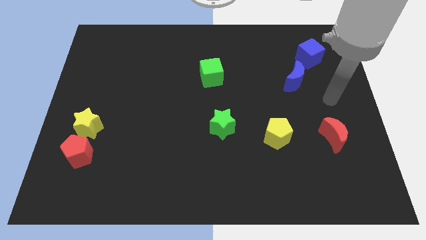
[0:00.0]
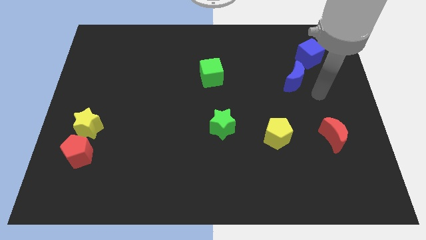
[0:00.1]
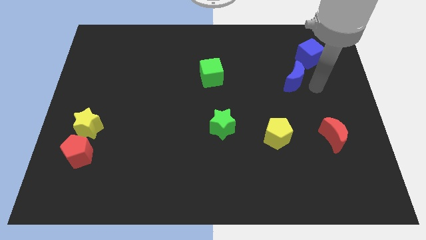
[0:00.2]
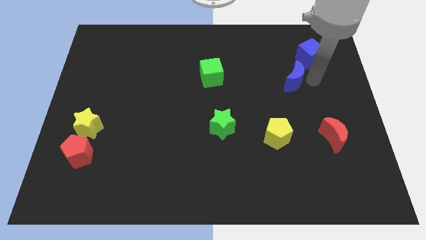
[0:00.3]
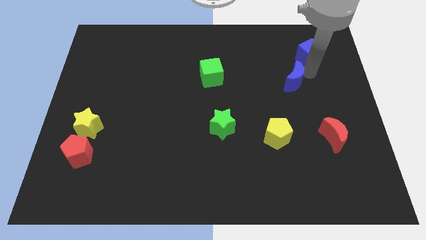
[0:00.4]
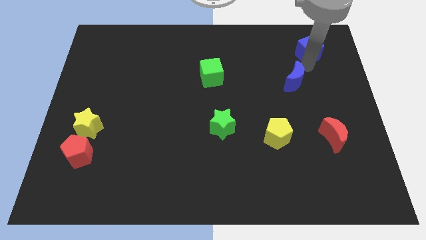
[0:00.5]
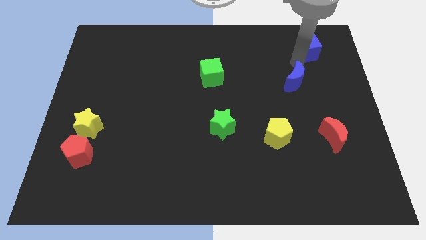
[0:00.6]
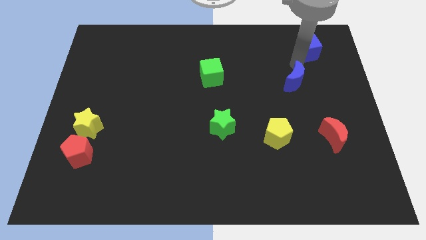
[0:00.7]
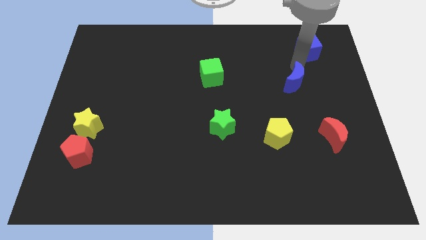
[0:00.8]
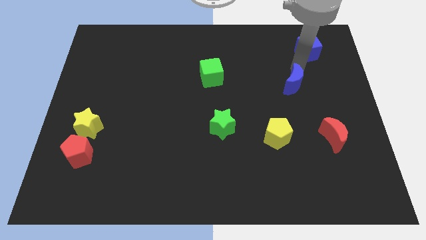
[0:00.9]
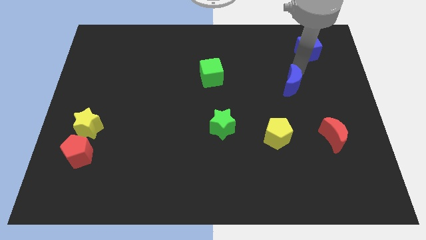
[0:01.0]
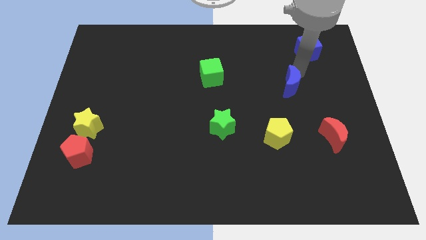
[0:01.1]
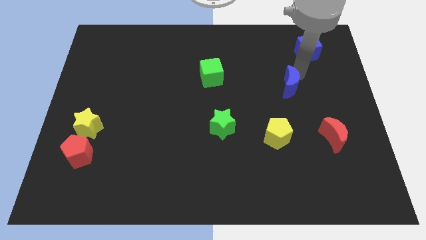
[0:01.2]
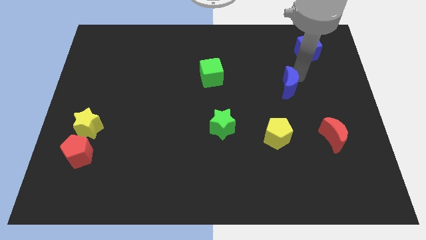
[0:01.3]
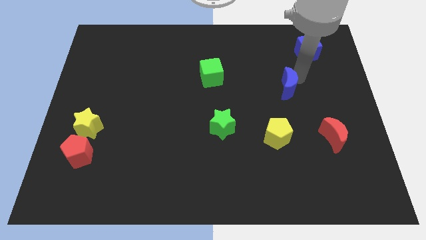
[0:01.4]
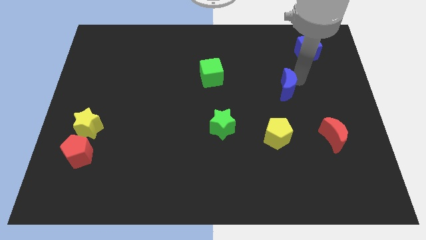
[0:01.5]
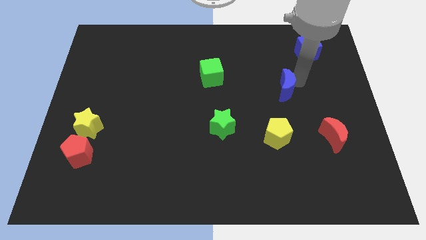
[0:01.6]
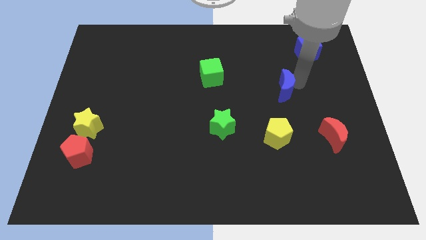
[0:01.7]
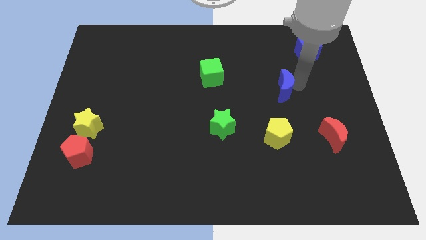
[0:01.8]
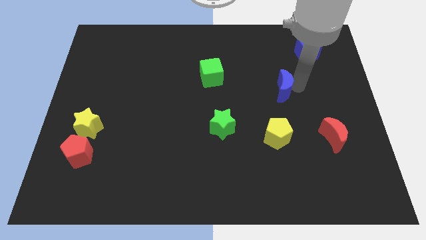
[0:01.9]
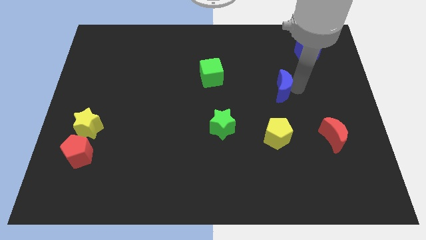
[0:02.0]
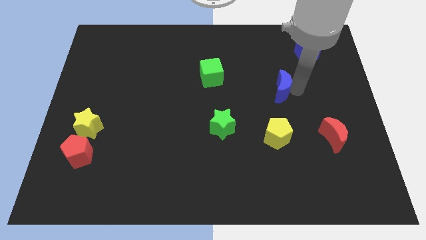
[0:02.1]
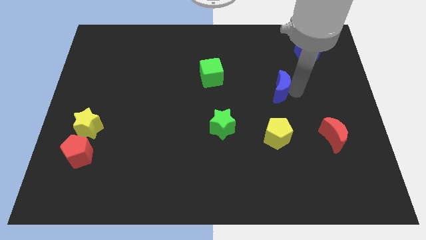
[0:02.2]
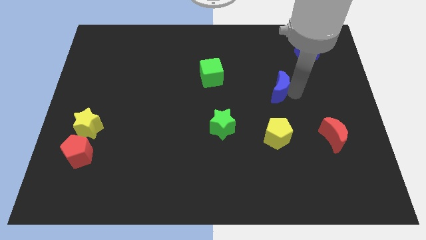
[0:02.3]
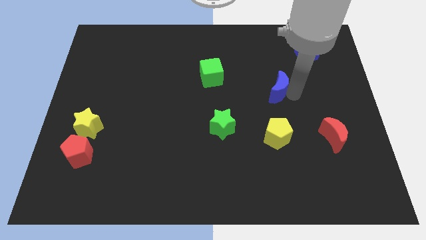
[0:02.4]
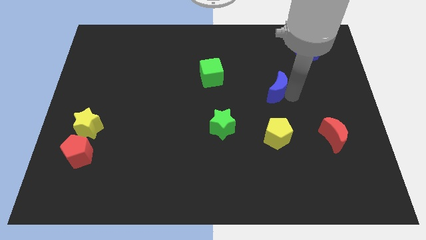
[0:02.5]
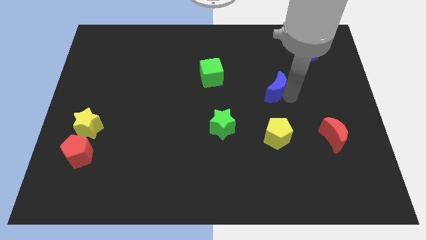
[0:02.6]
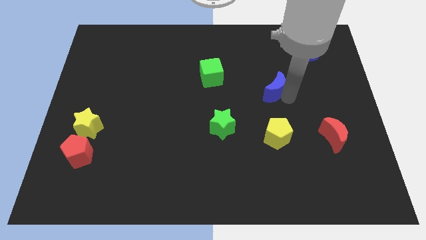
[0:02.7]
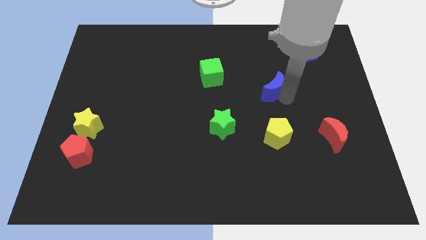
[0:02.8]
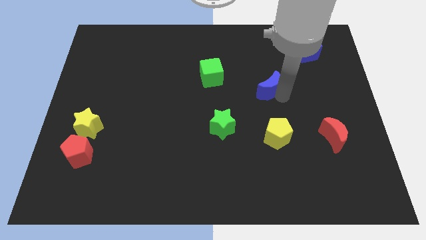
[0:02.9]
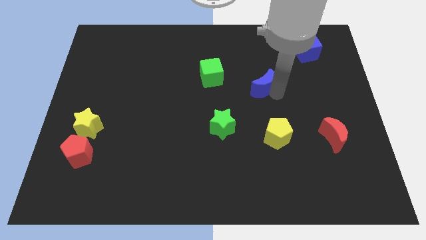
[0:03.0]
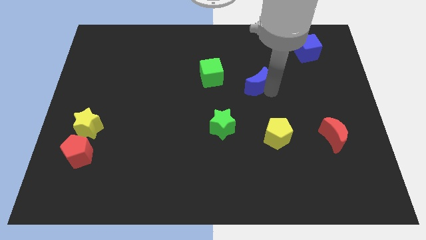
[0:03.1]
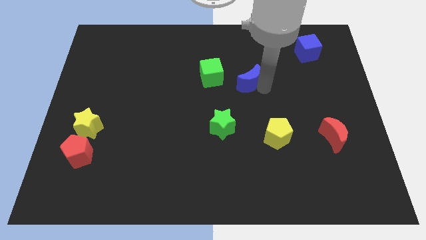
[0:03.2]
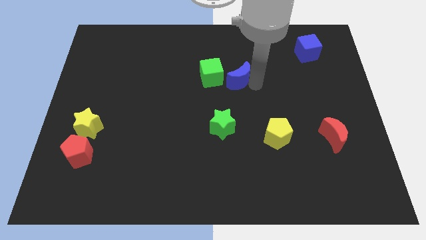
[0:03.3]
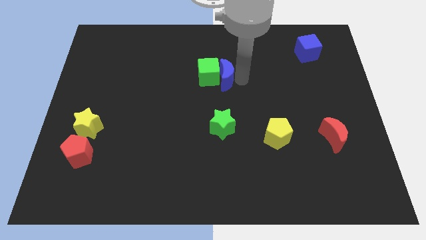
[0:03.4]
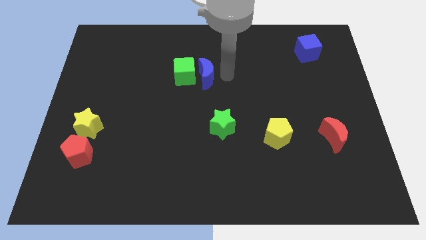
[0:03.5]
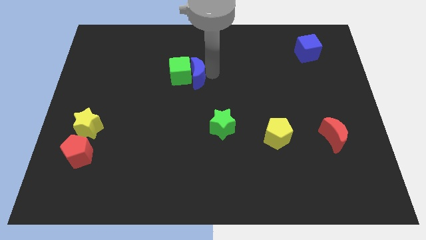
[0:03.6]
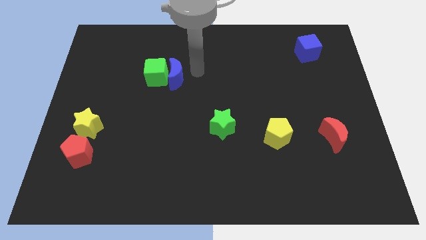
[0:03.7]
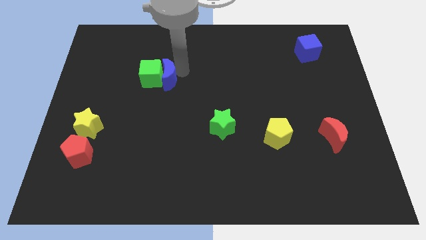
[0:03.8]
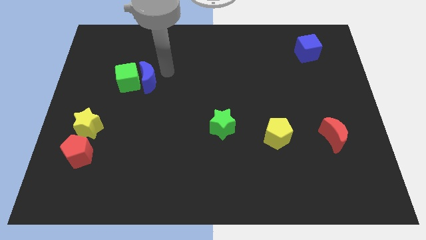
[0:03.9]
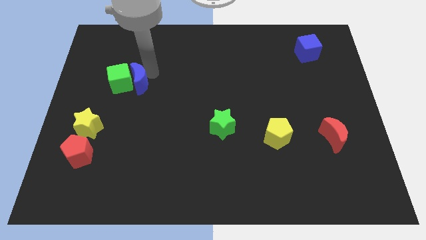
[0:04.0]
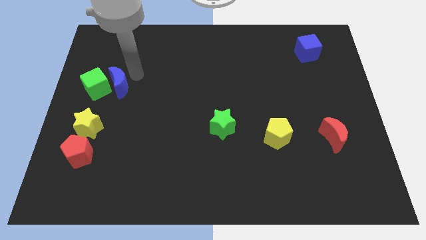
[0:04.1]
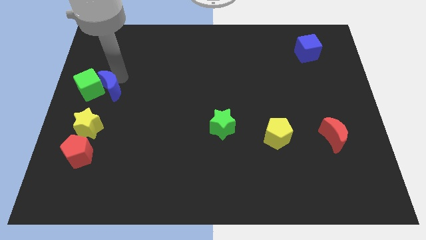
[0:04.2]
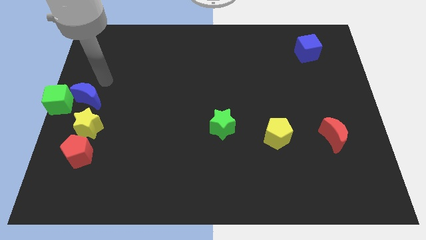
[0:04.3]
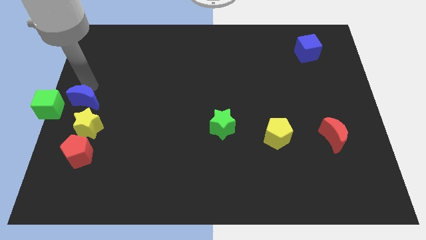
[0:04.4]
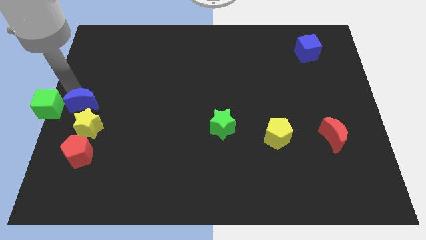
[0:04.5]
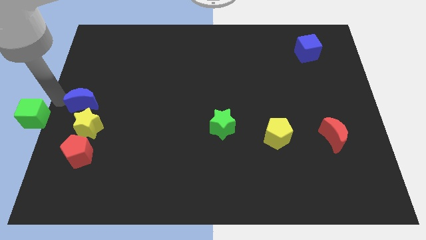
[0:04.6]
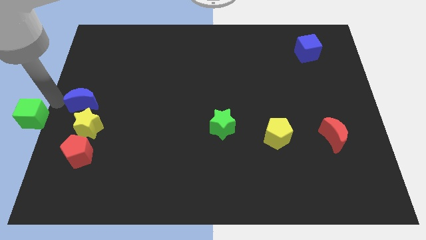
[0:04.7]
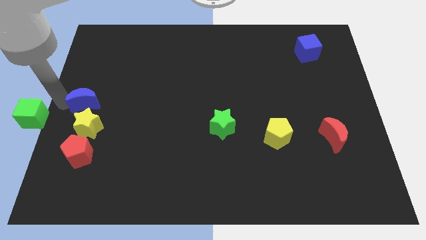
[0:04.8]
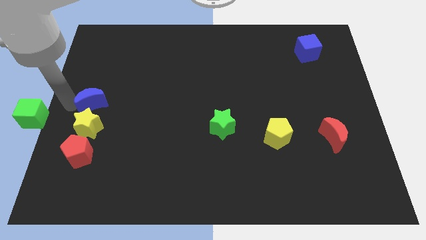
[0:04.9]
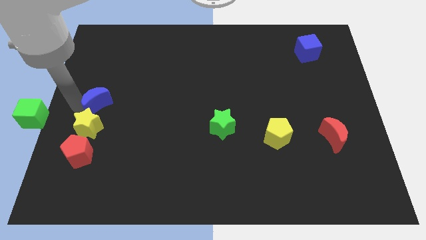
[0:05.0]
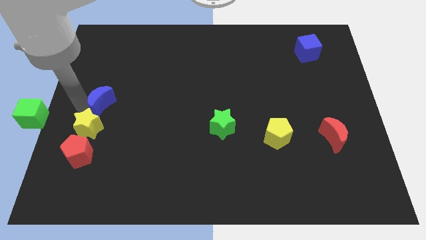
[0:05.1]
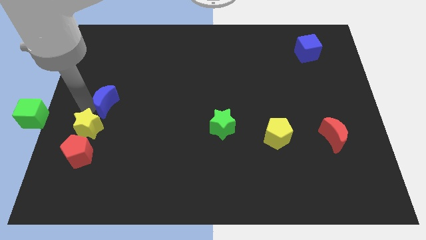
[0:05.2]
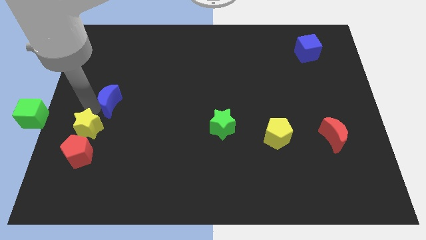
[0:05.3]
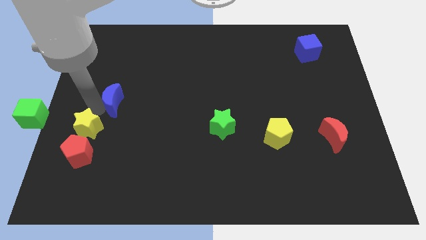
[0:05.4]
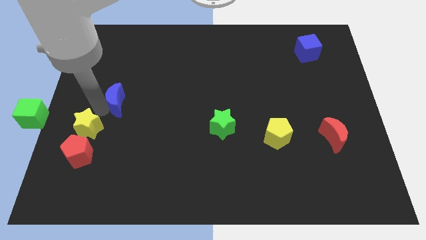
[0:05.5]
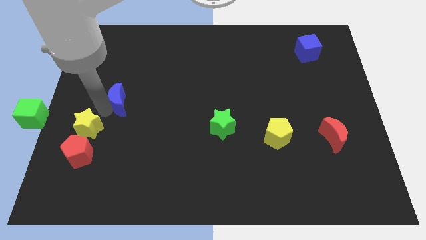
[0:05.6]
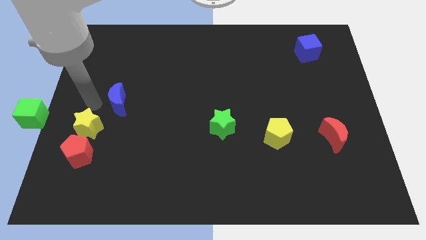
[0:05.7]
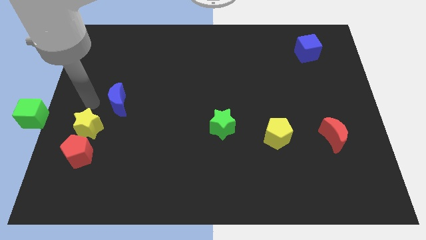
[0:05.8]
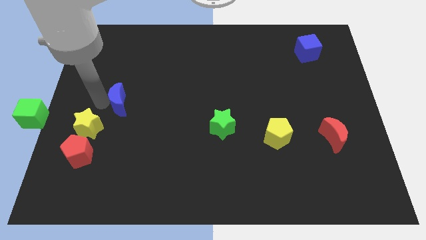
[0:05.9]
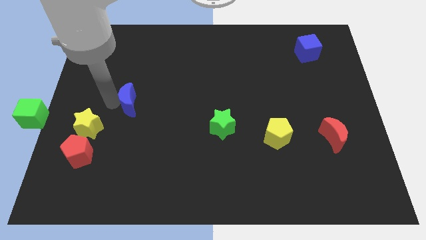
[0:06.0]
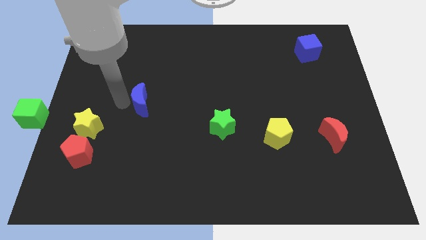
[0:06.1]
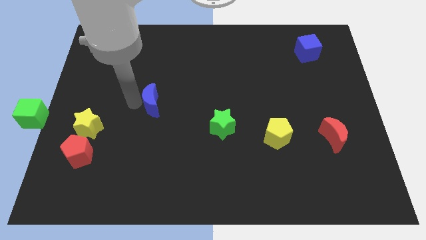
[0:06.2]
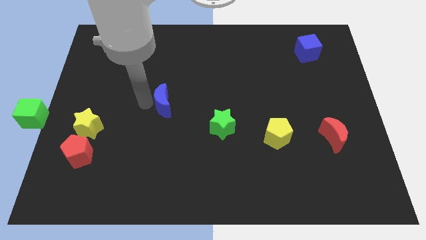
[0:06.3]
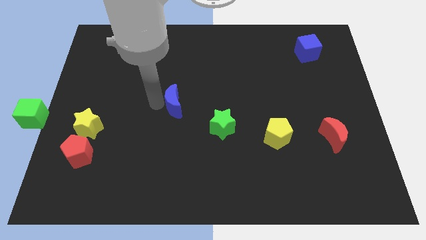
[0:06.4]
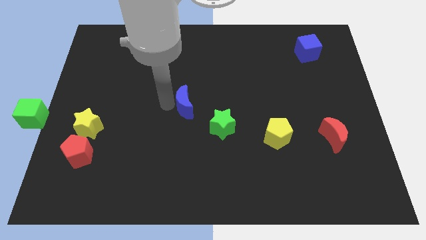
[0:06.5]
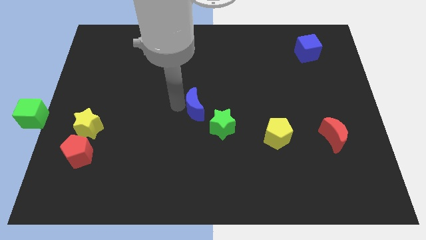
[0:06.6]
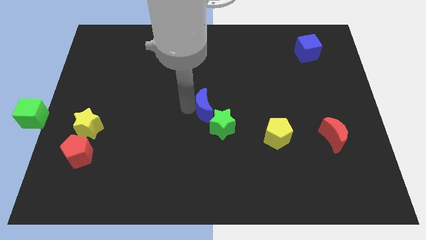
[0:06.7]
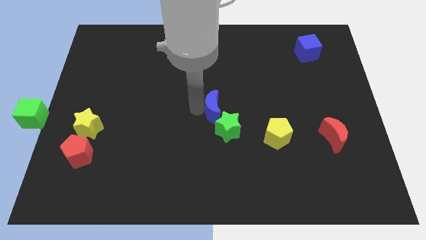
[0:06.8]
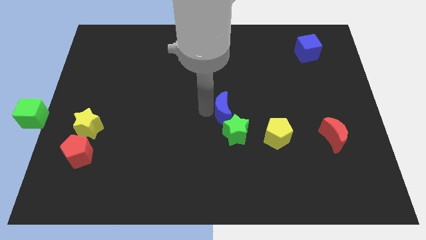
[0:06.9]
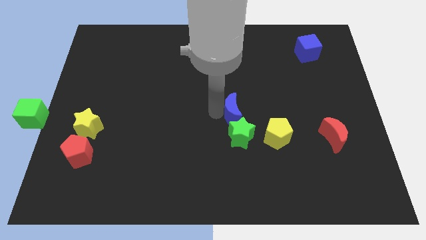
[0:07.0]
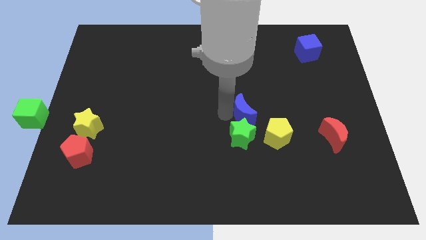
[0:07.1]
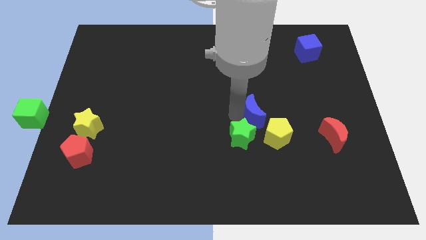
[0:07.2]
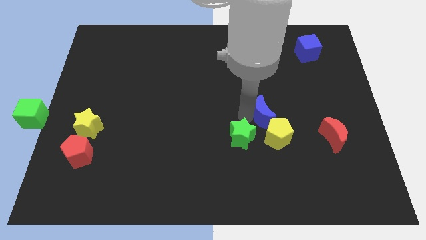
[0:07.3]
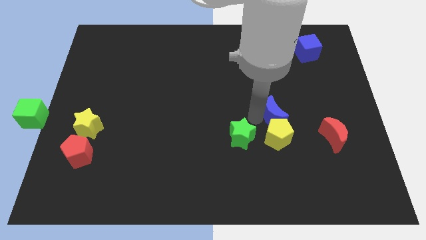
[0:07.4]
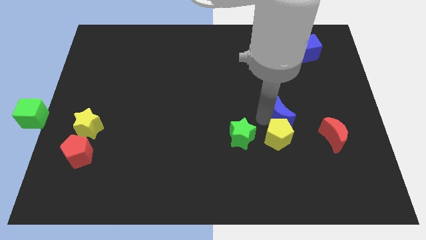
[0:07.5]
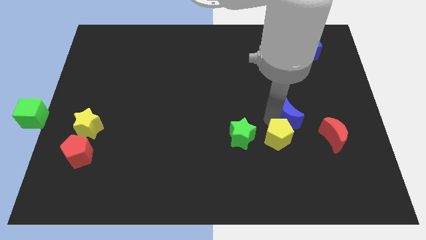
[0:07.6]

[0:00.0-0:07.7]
push the blue moon to the right side of the green star

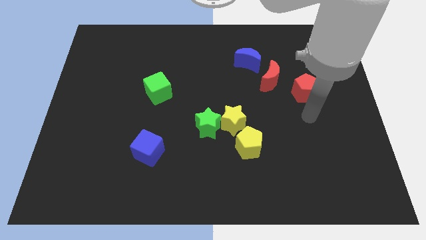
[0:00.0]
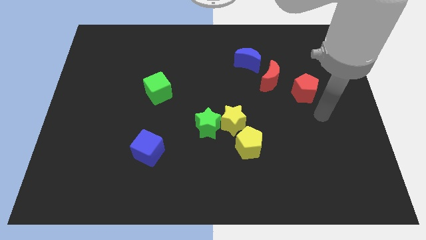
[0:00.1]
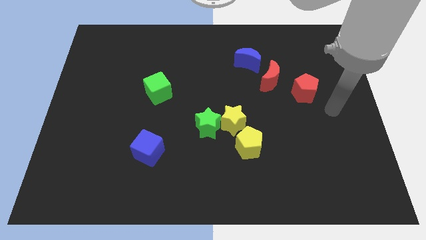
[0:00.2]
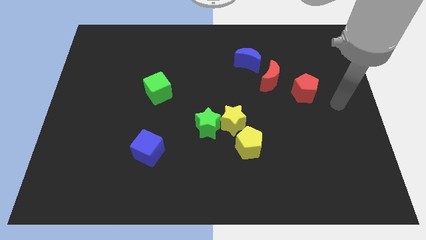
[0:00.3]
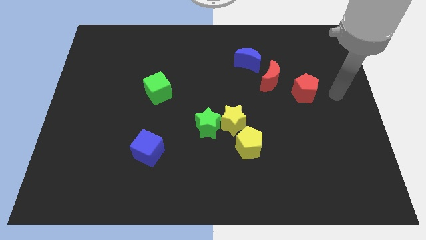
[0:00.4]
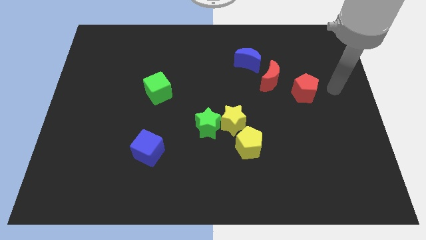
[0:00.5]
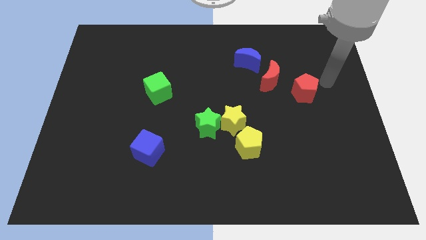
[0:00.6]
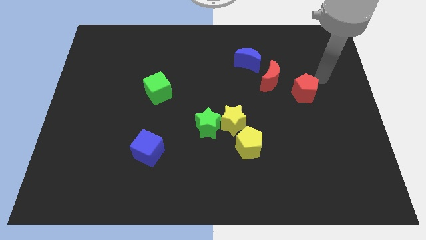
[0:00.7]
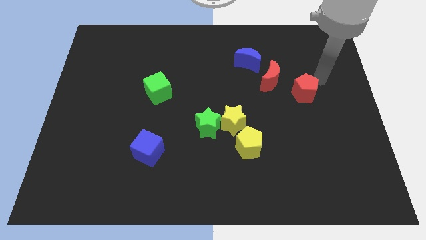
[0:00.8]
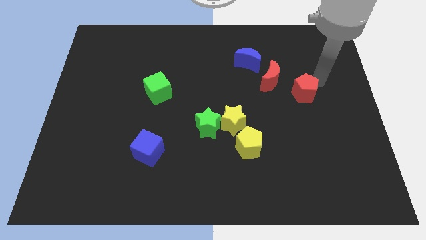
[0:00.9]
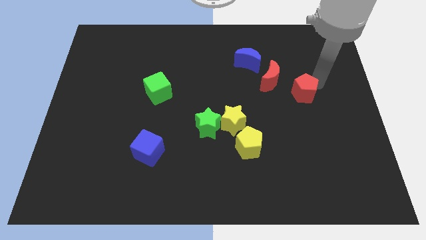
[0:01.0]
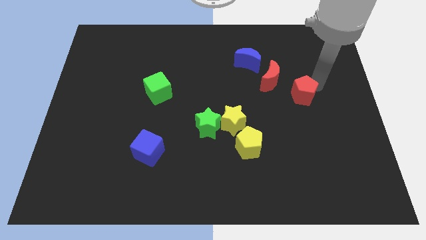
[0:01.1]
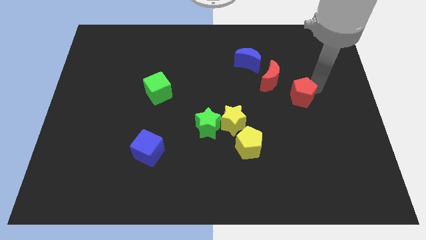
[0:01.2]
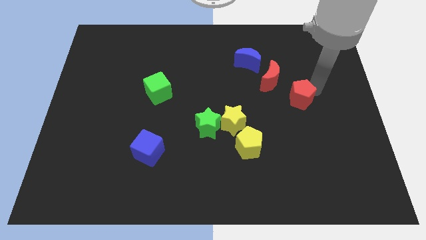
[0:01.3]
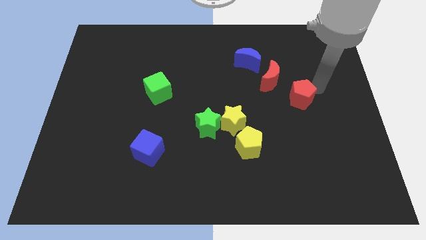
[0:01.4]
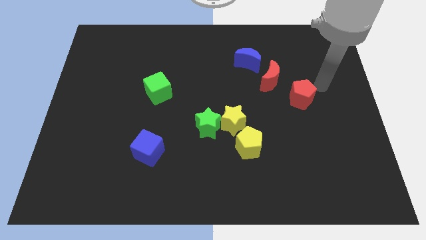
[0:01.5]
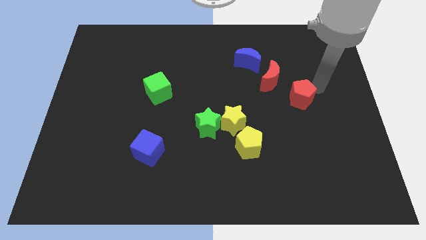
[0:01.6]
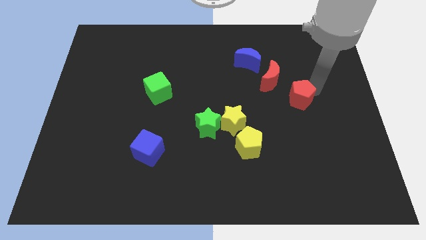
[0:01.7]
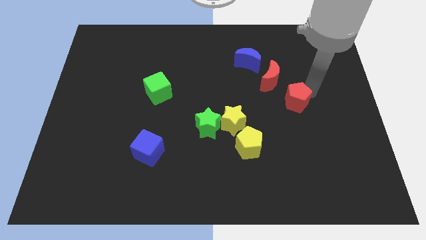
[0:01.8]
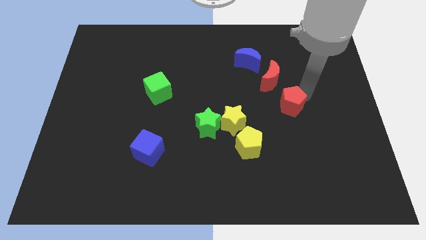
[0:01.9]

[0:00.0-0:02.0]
put the red pentagon to the bottom side of the red moon
